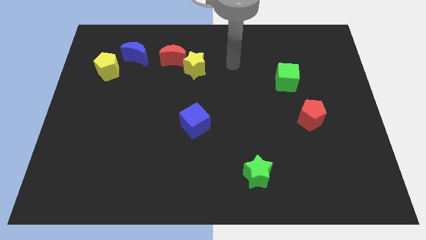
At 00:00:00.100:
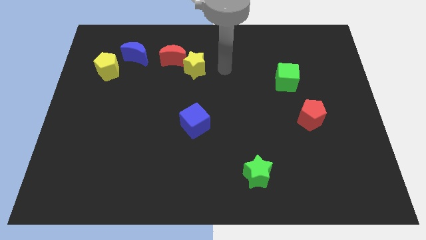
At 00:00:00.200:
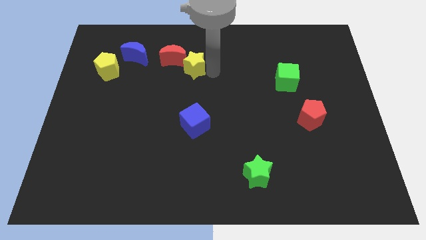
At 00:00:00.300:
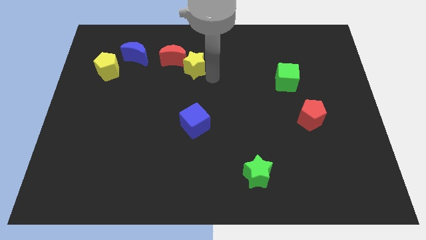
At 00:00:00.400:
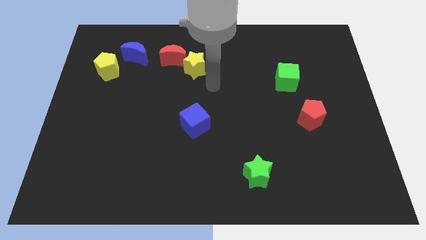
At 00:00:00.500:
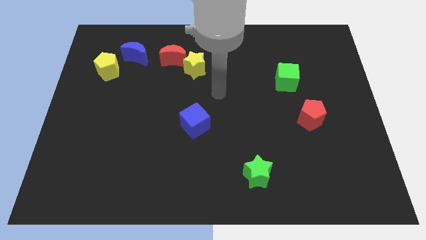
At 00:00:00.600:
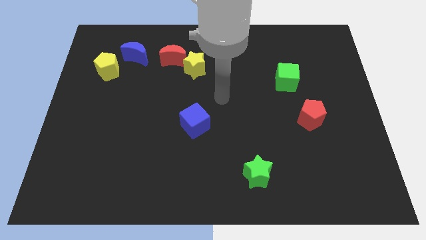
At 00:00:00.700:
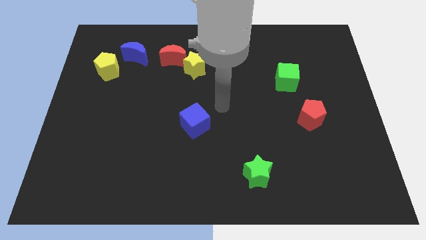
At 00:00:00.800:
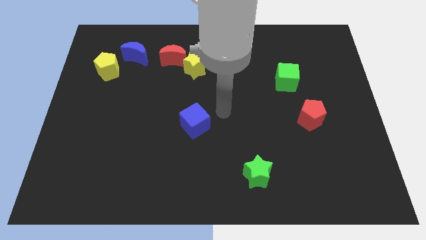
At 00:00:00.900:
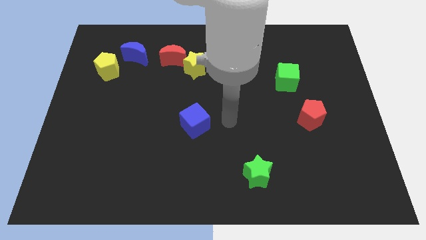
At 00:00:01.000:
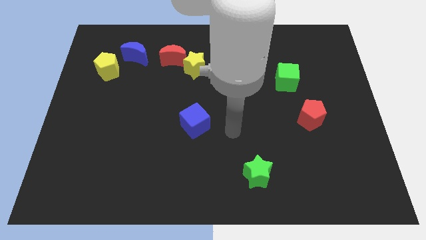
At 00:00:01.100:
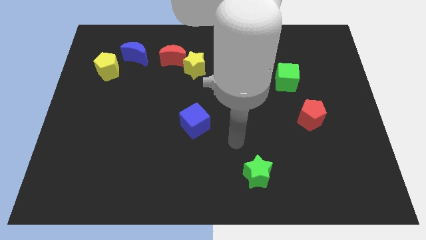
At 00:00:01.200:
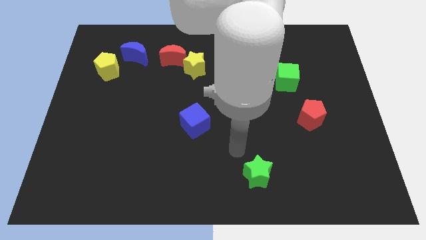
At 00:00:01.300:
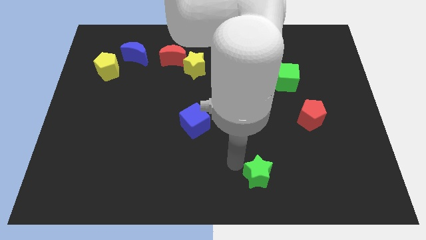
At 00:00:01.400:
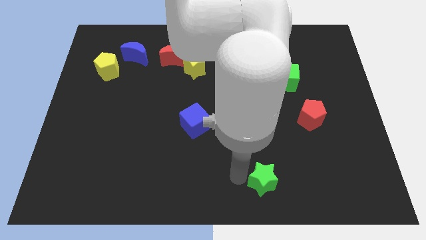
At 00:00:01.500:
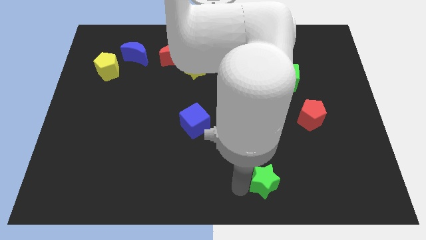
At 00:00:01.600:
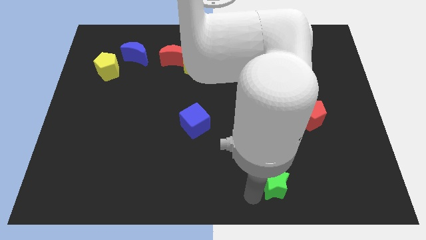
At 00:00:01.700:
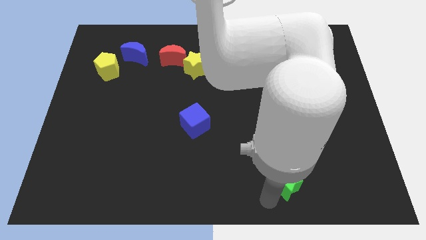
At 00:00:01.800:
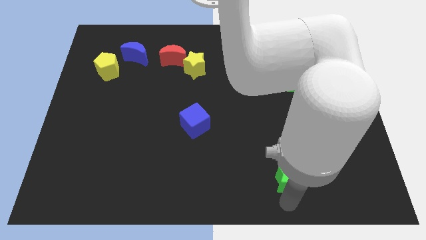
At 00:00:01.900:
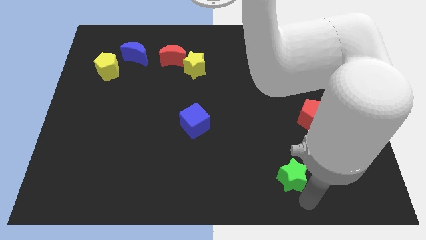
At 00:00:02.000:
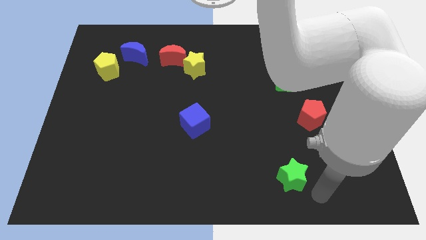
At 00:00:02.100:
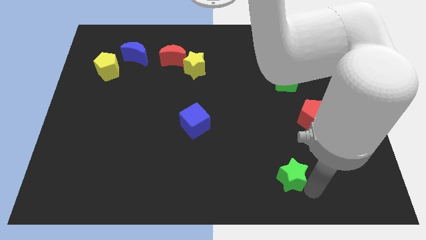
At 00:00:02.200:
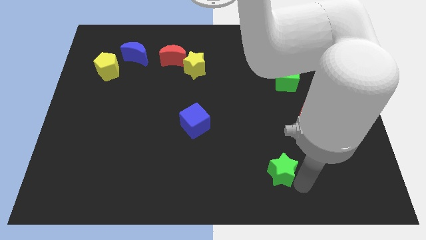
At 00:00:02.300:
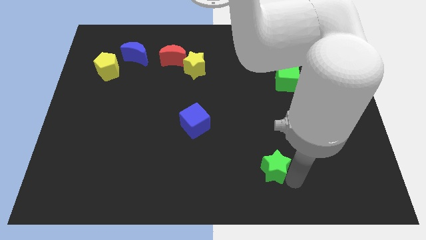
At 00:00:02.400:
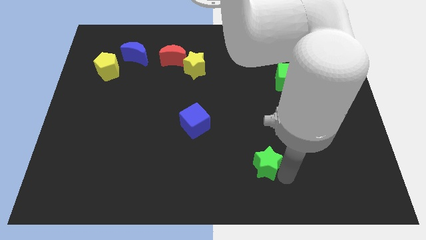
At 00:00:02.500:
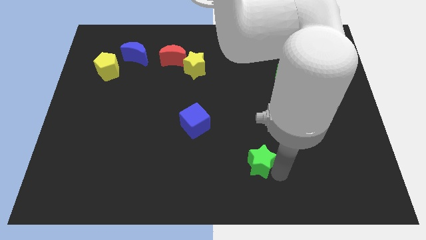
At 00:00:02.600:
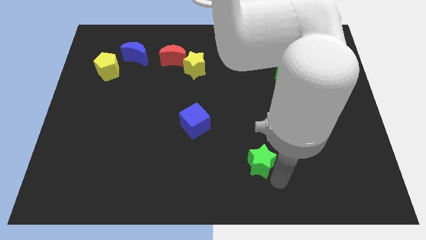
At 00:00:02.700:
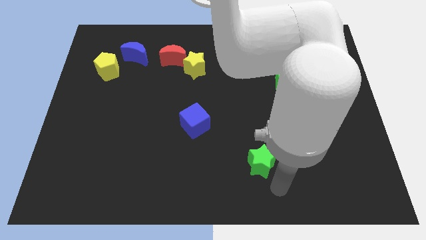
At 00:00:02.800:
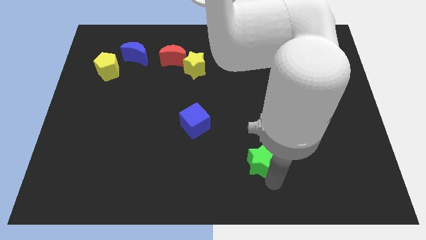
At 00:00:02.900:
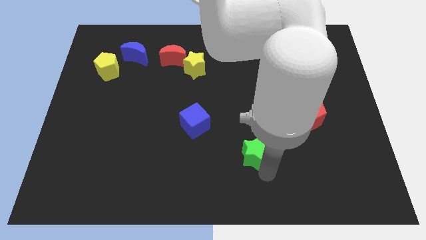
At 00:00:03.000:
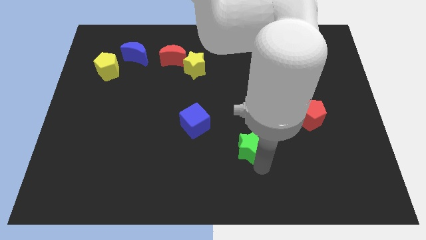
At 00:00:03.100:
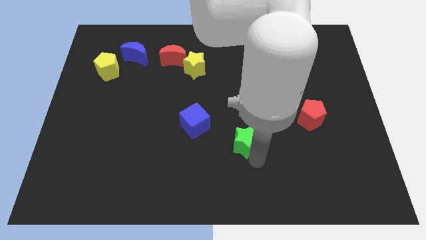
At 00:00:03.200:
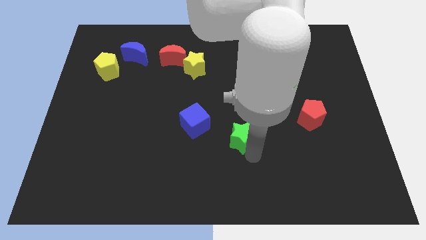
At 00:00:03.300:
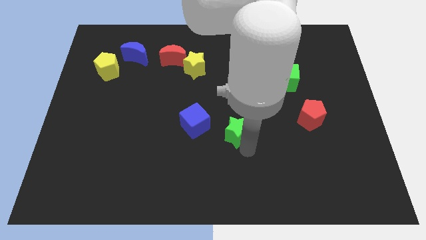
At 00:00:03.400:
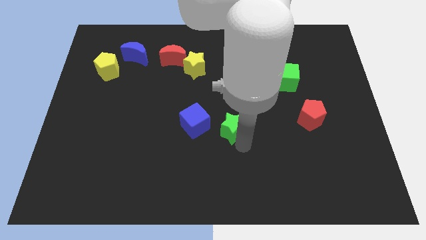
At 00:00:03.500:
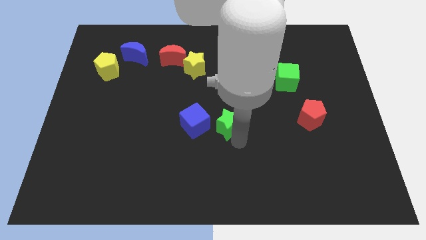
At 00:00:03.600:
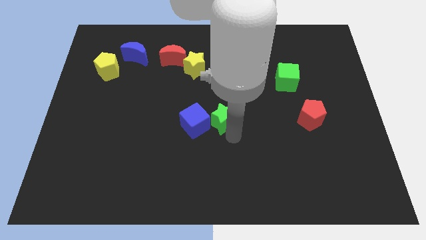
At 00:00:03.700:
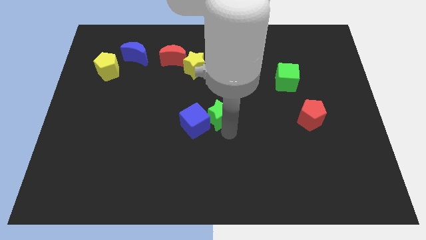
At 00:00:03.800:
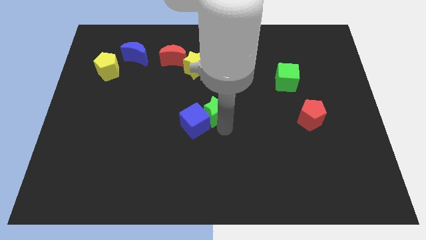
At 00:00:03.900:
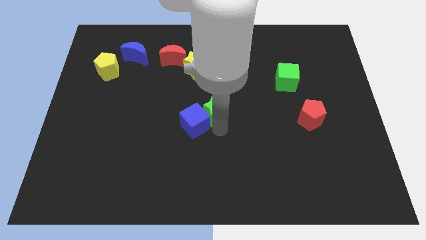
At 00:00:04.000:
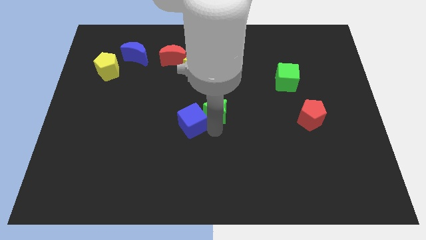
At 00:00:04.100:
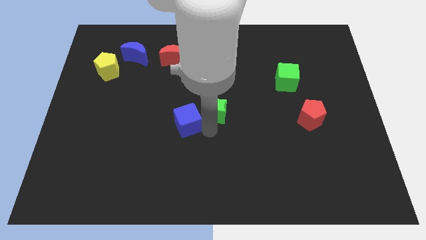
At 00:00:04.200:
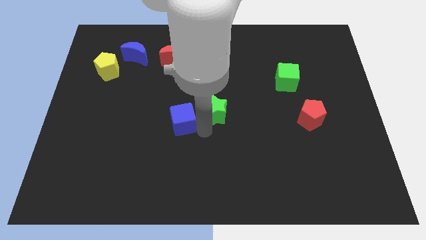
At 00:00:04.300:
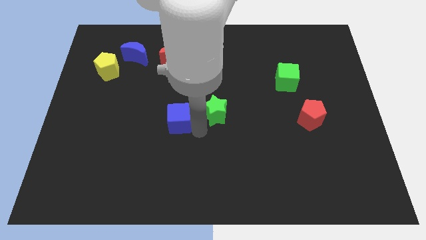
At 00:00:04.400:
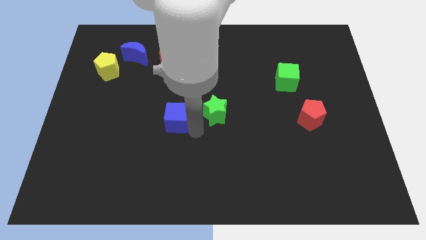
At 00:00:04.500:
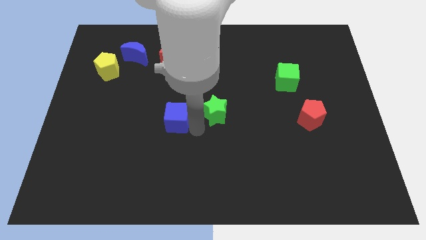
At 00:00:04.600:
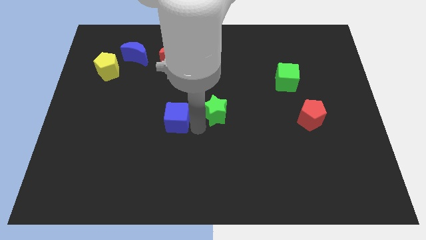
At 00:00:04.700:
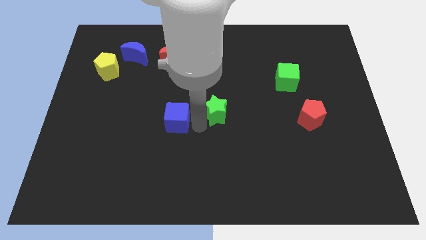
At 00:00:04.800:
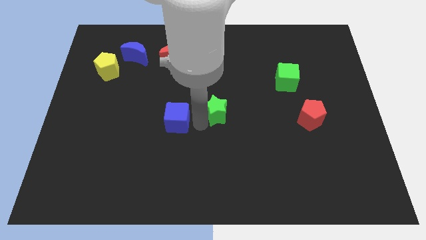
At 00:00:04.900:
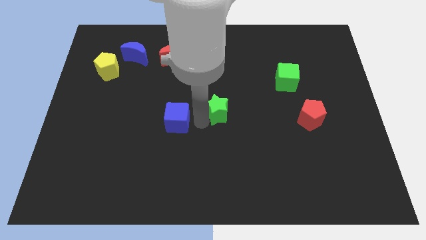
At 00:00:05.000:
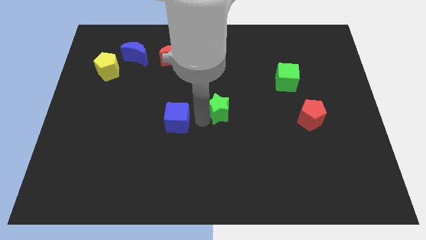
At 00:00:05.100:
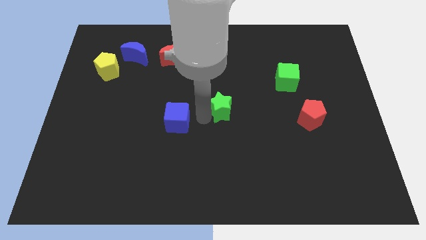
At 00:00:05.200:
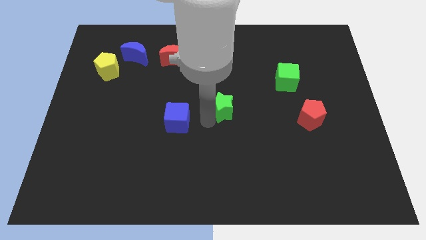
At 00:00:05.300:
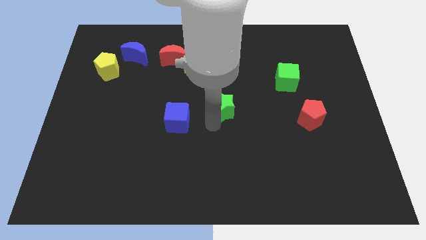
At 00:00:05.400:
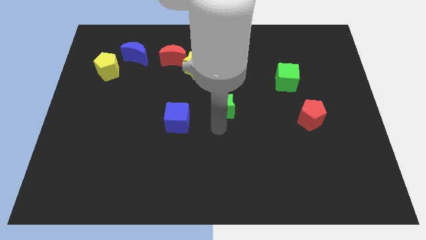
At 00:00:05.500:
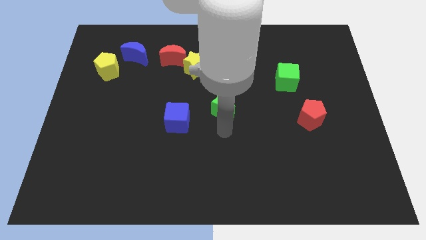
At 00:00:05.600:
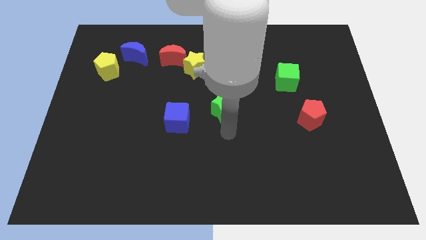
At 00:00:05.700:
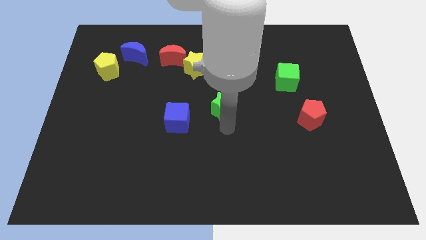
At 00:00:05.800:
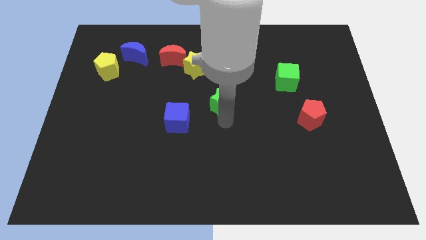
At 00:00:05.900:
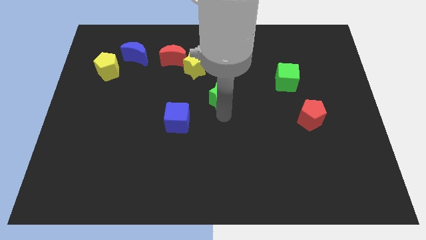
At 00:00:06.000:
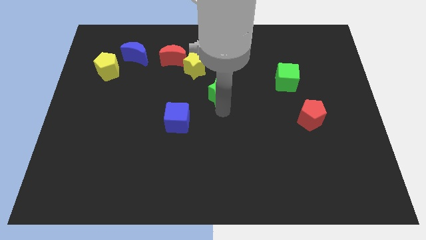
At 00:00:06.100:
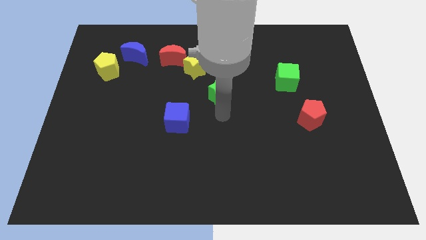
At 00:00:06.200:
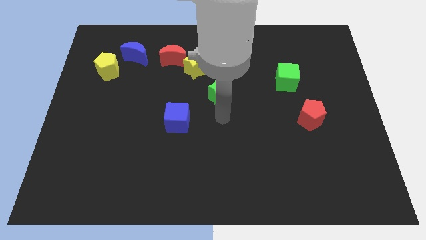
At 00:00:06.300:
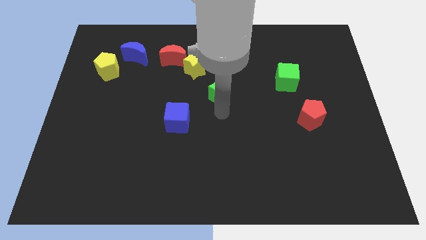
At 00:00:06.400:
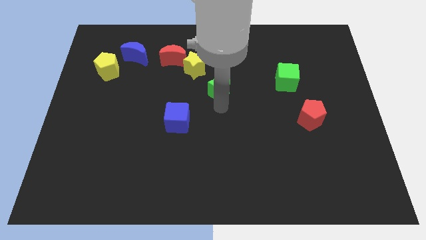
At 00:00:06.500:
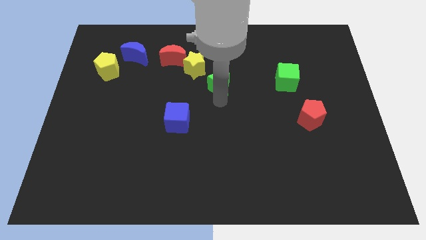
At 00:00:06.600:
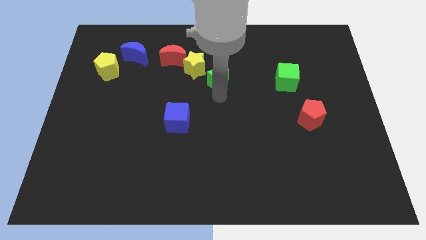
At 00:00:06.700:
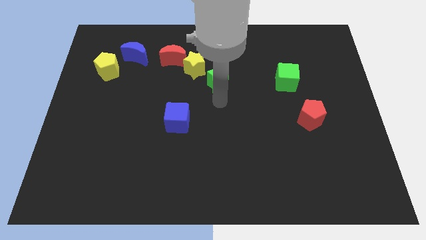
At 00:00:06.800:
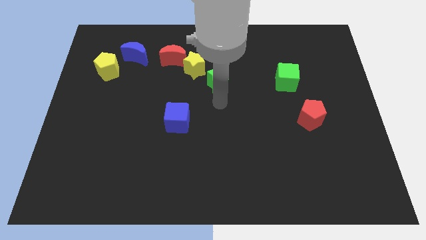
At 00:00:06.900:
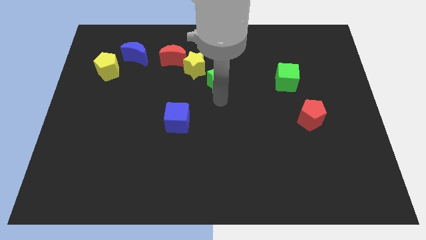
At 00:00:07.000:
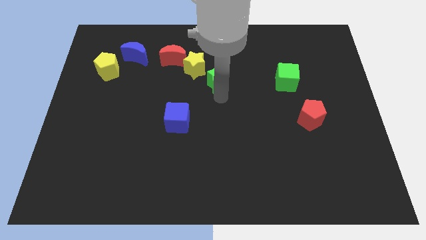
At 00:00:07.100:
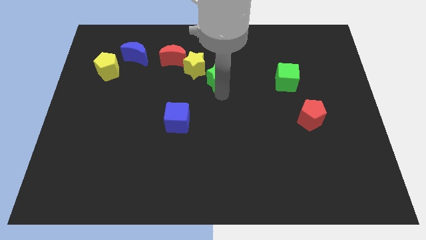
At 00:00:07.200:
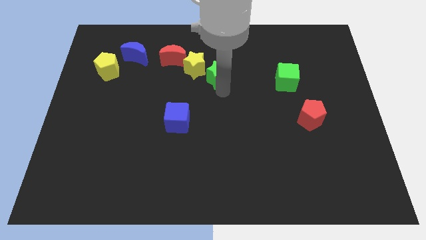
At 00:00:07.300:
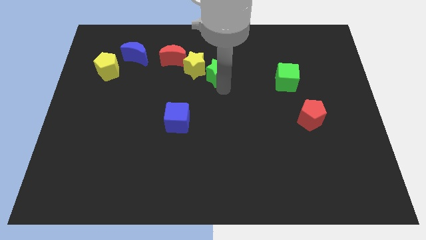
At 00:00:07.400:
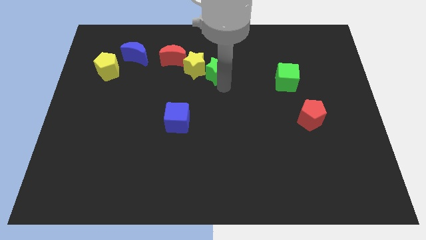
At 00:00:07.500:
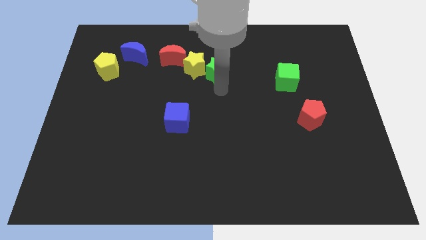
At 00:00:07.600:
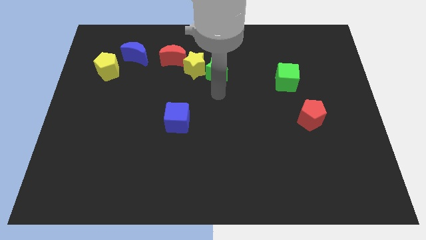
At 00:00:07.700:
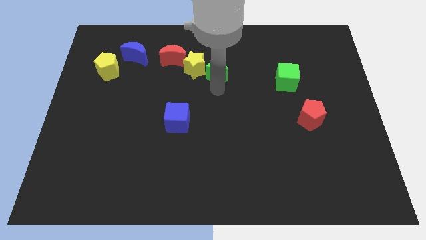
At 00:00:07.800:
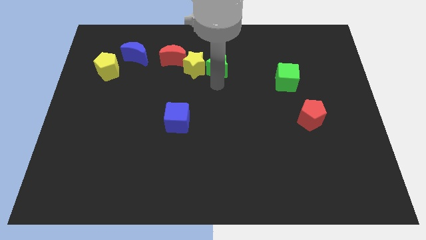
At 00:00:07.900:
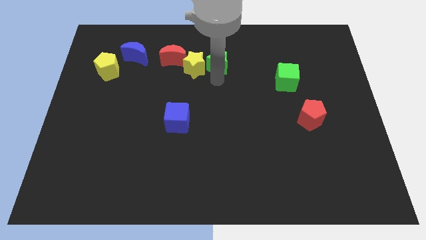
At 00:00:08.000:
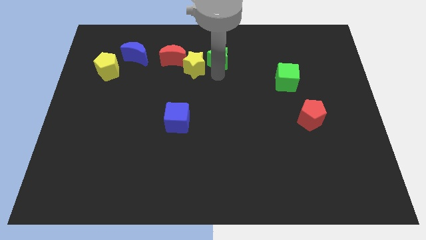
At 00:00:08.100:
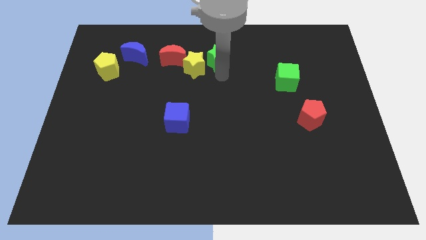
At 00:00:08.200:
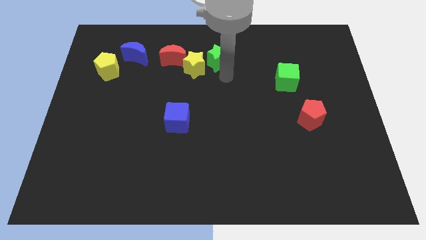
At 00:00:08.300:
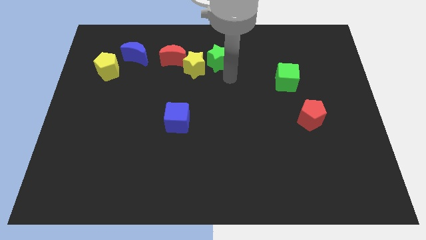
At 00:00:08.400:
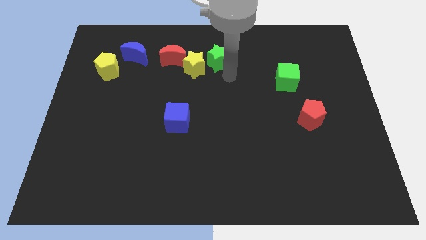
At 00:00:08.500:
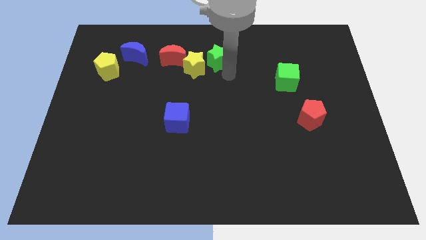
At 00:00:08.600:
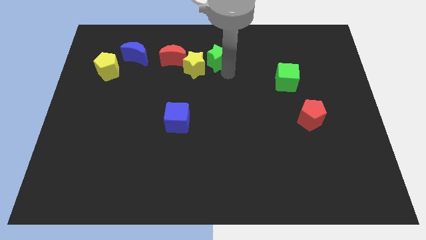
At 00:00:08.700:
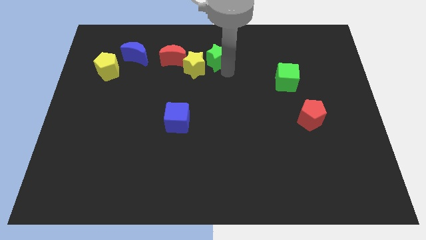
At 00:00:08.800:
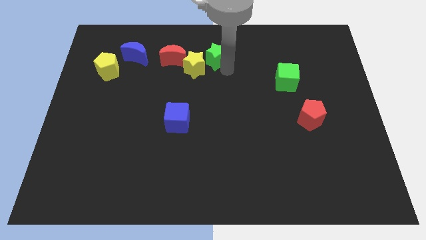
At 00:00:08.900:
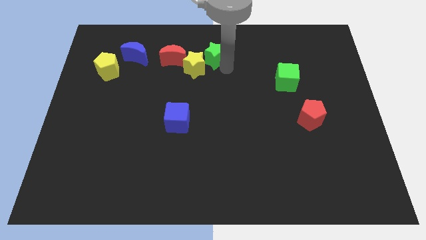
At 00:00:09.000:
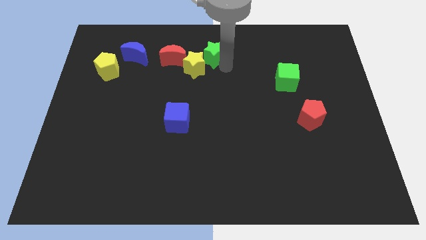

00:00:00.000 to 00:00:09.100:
push the green star to the towards your base
